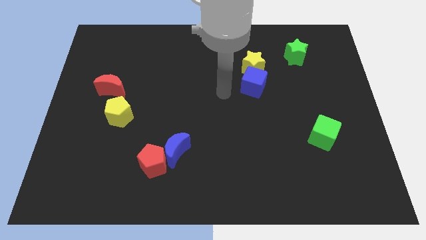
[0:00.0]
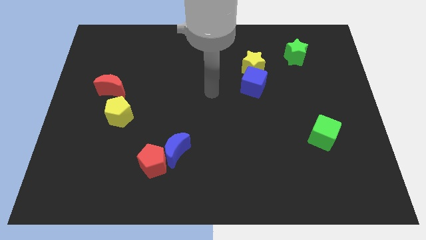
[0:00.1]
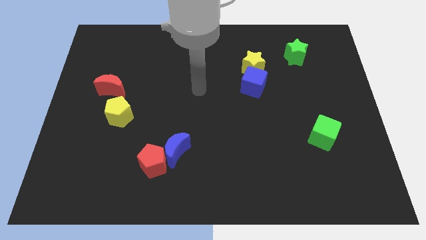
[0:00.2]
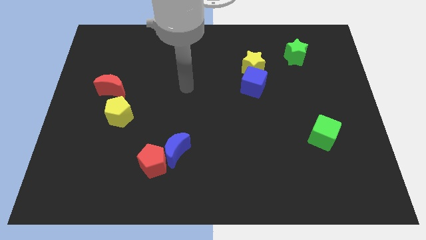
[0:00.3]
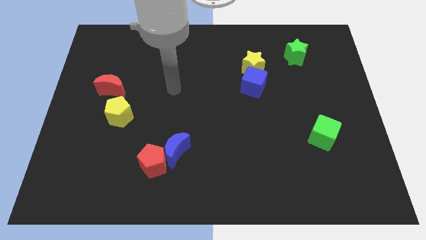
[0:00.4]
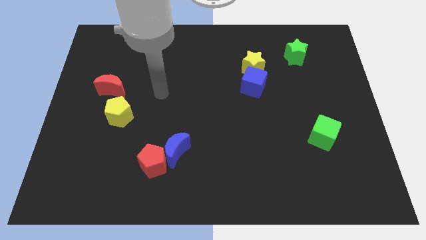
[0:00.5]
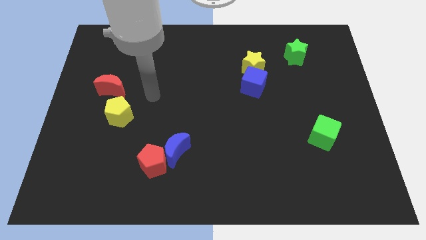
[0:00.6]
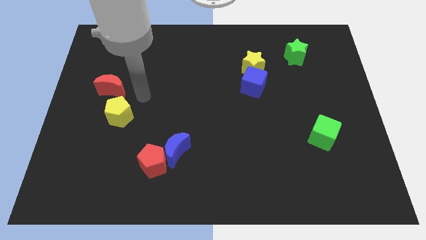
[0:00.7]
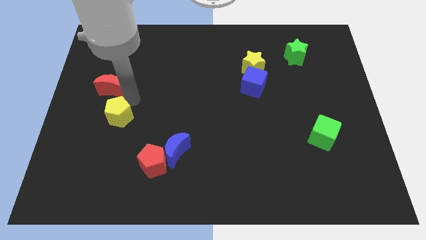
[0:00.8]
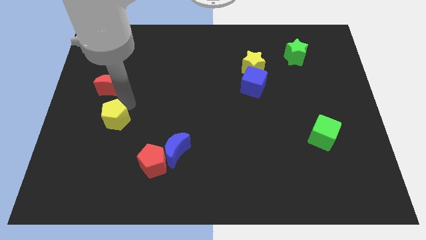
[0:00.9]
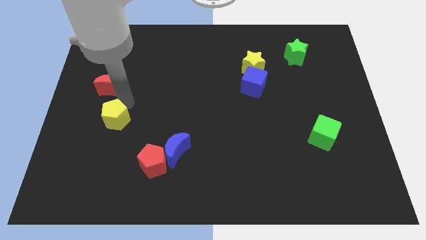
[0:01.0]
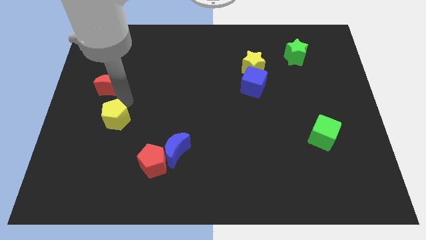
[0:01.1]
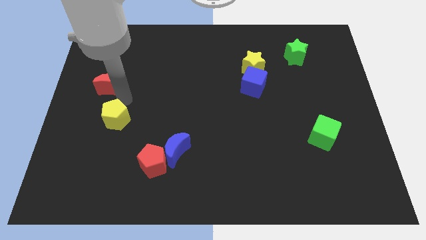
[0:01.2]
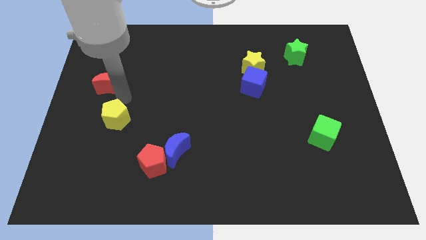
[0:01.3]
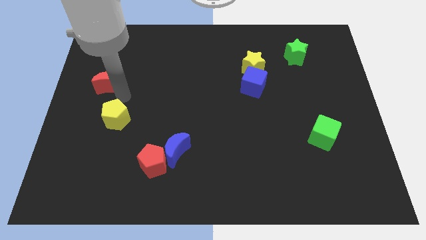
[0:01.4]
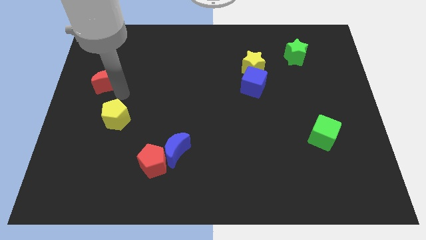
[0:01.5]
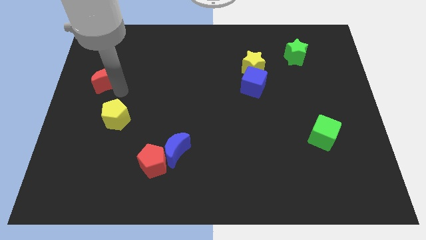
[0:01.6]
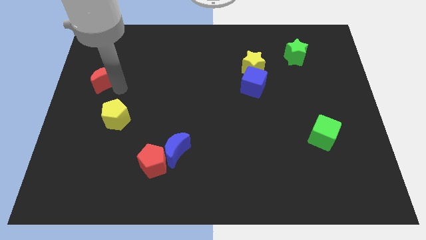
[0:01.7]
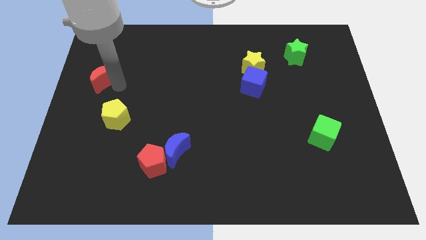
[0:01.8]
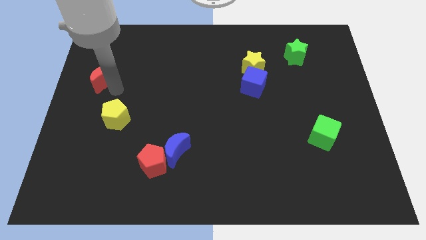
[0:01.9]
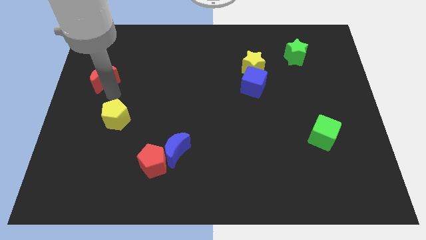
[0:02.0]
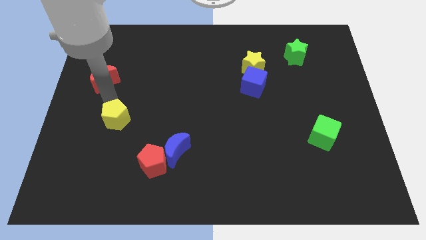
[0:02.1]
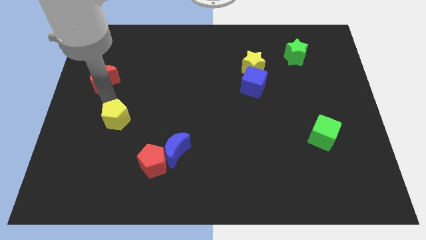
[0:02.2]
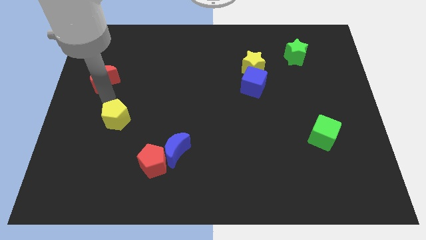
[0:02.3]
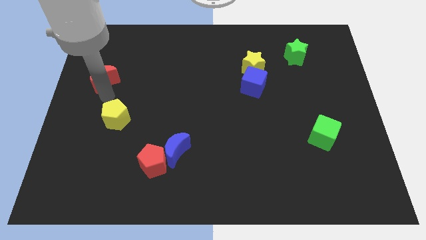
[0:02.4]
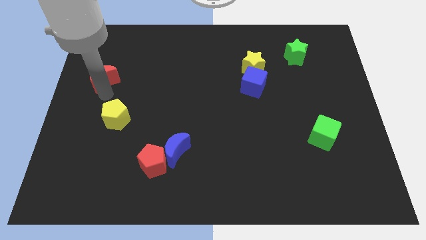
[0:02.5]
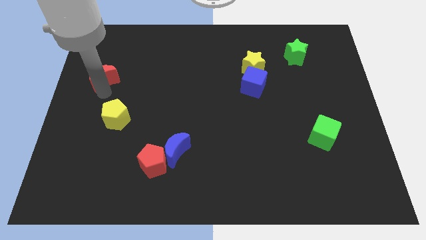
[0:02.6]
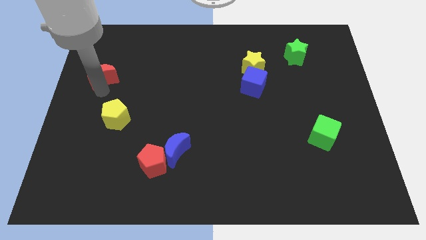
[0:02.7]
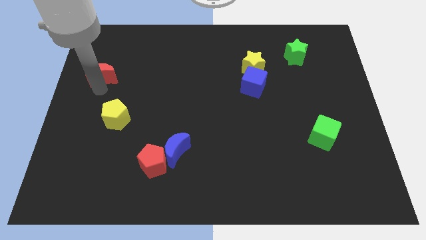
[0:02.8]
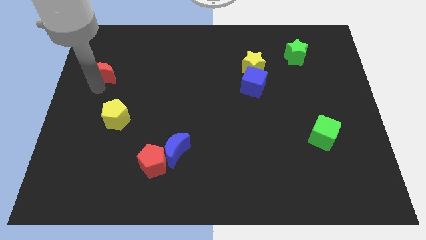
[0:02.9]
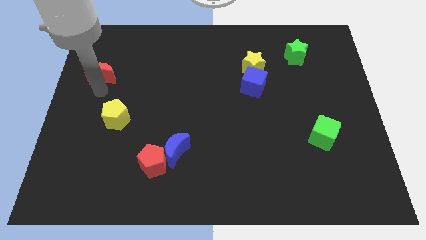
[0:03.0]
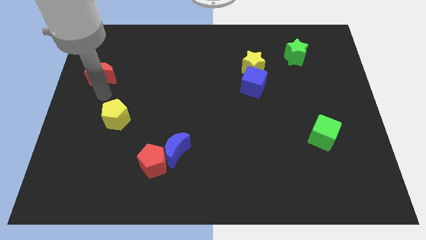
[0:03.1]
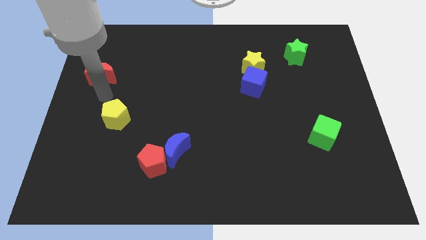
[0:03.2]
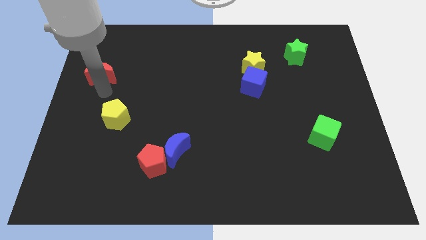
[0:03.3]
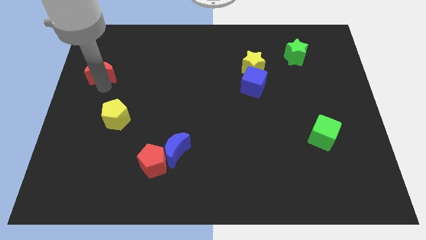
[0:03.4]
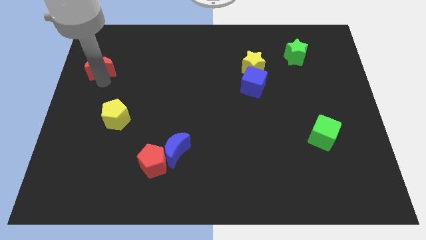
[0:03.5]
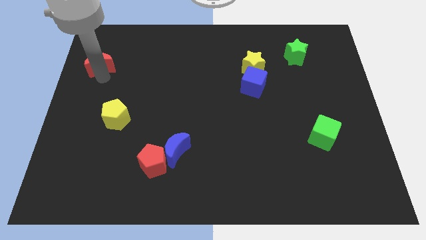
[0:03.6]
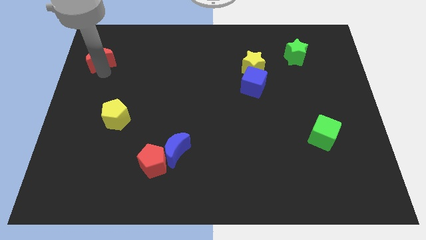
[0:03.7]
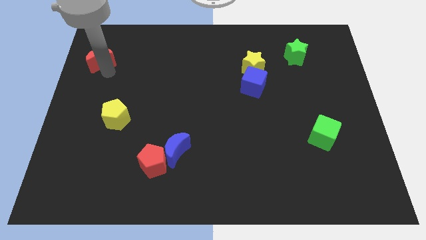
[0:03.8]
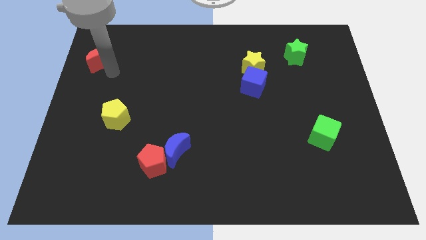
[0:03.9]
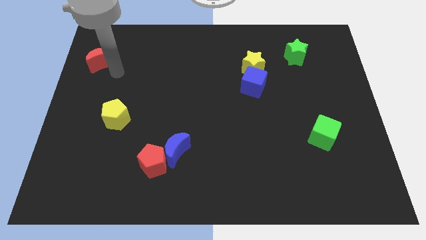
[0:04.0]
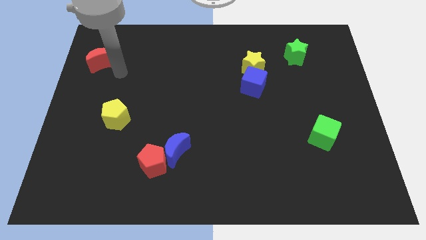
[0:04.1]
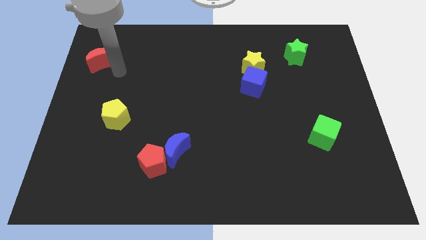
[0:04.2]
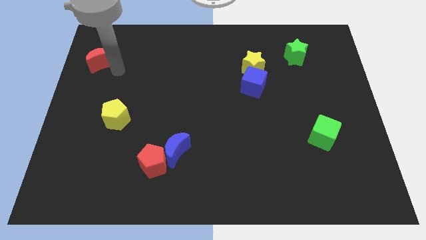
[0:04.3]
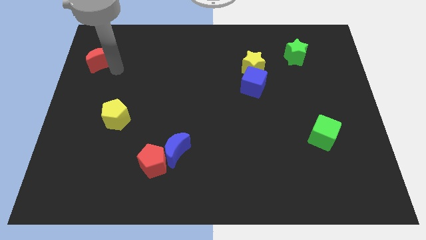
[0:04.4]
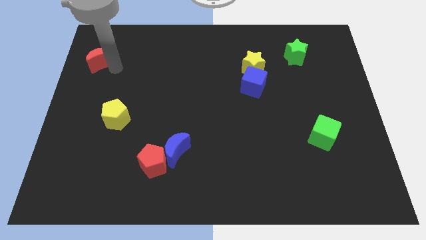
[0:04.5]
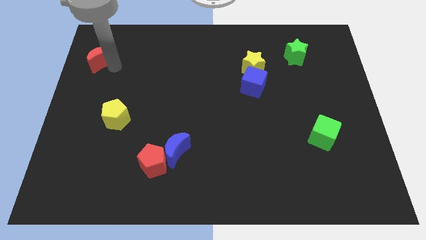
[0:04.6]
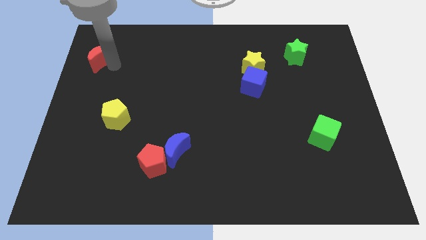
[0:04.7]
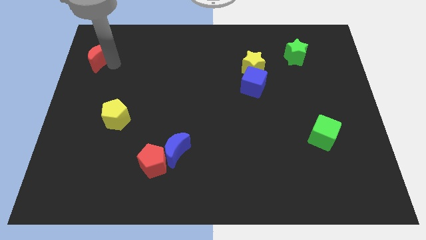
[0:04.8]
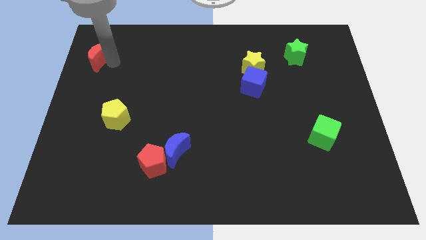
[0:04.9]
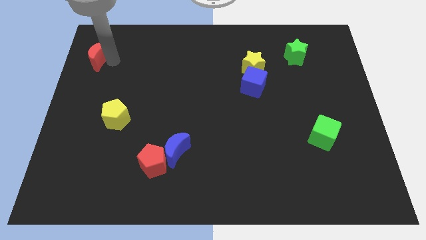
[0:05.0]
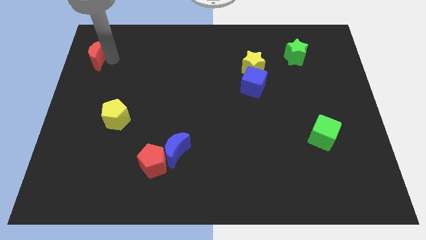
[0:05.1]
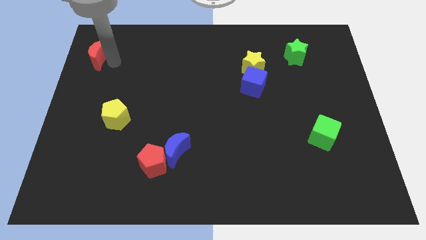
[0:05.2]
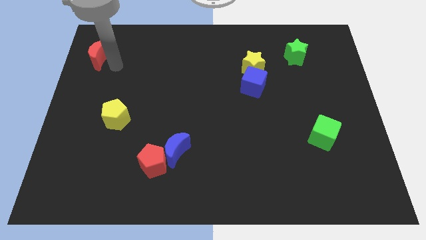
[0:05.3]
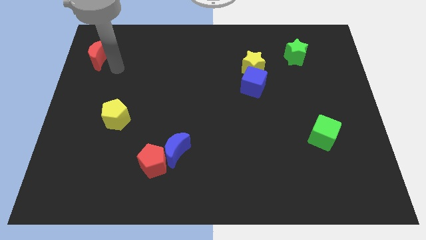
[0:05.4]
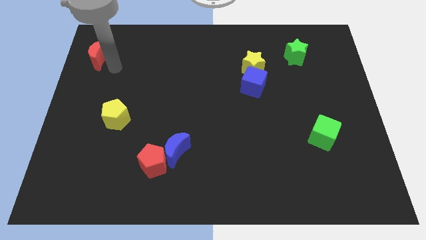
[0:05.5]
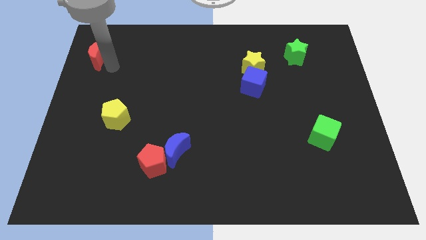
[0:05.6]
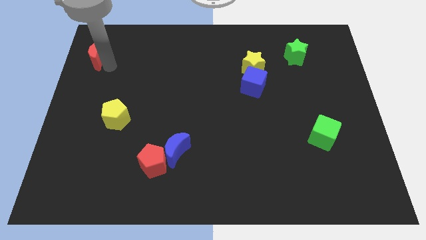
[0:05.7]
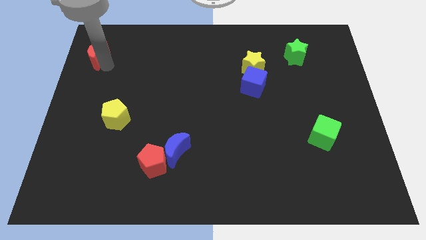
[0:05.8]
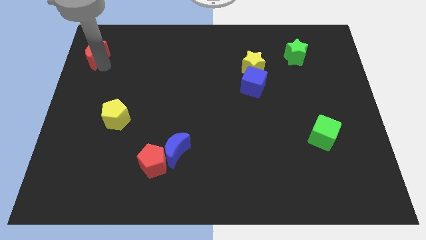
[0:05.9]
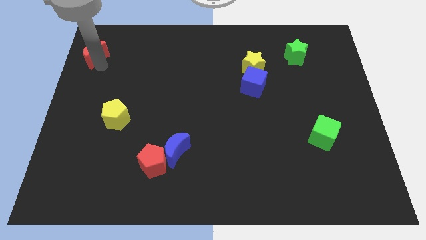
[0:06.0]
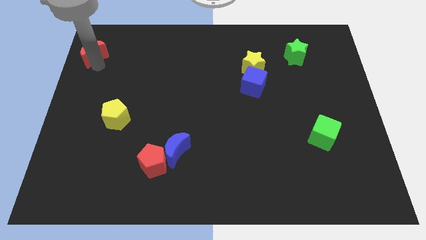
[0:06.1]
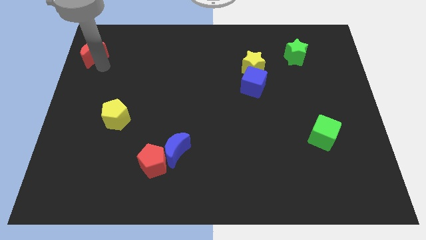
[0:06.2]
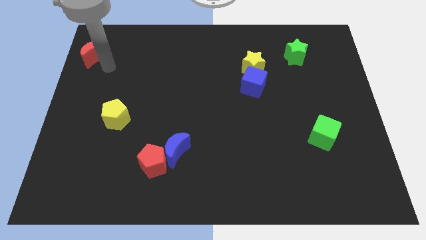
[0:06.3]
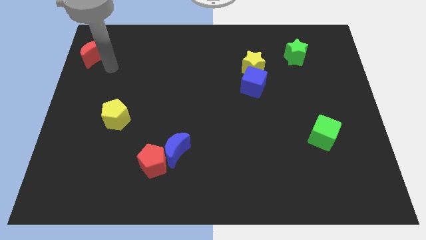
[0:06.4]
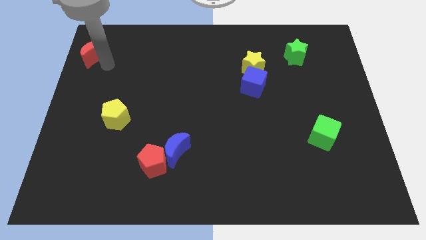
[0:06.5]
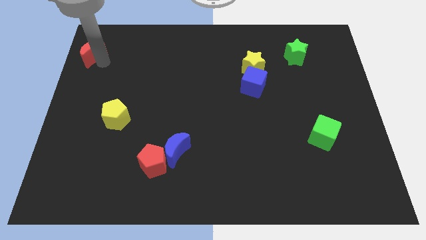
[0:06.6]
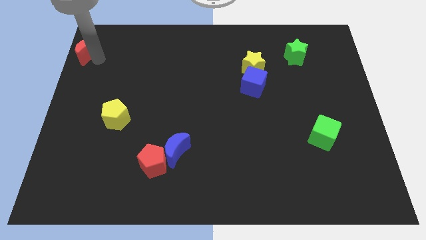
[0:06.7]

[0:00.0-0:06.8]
slide the red moon to the upper left corner

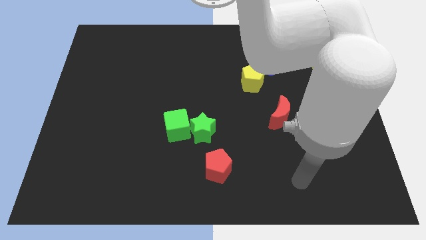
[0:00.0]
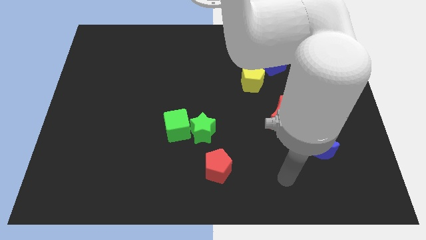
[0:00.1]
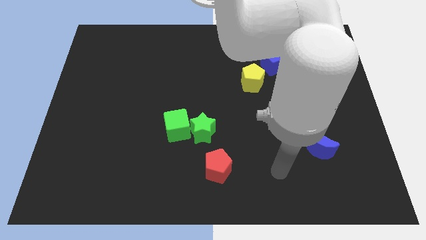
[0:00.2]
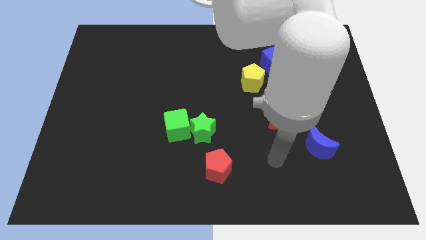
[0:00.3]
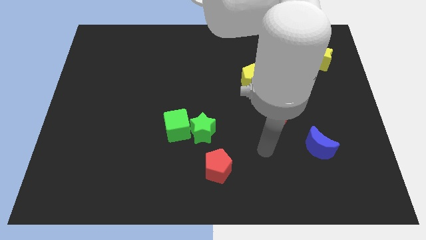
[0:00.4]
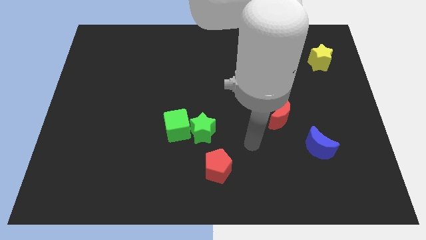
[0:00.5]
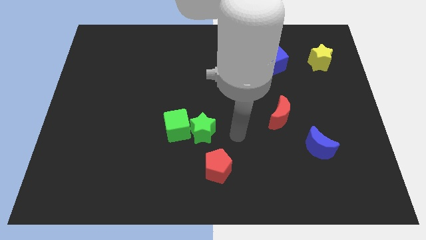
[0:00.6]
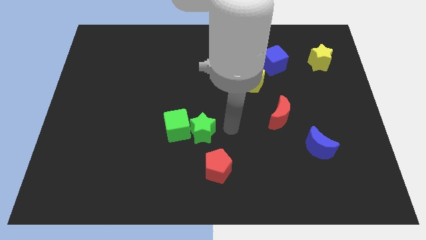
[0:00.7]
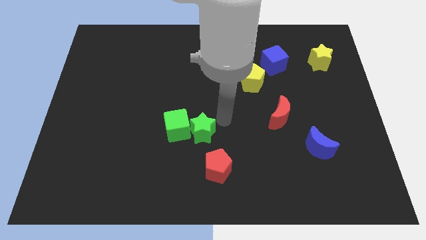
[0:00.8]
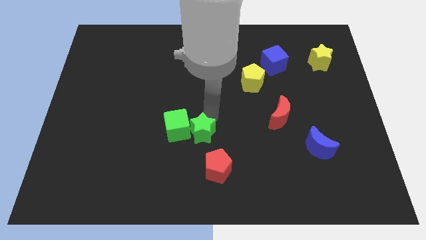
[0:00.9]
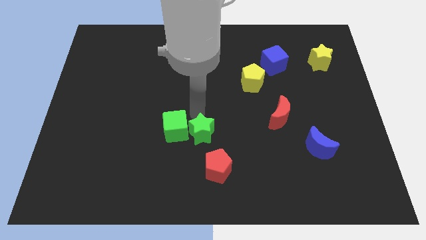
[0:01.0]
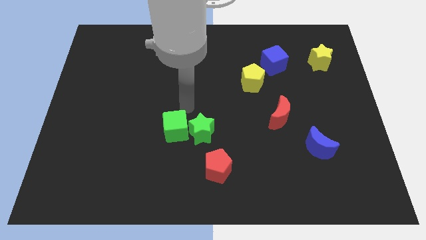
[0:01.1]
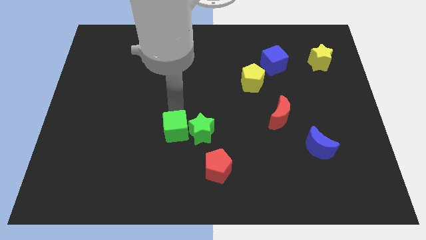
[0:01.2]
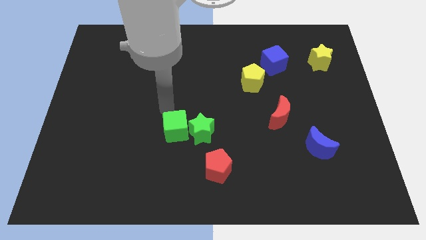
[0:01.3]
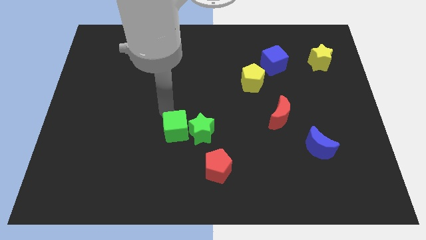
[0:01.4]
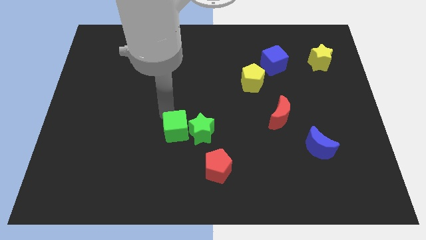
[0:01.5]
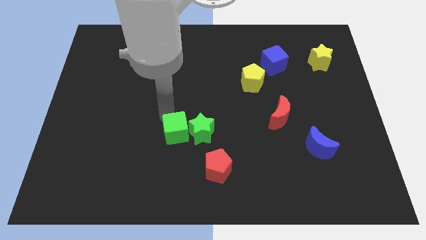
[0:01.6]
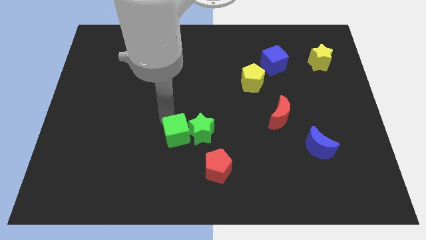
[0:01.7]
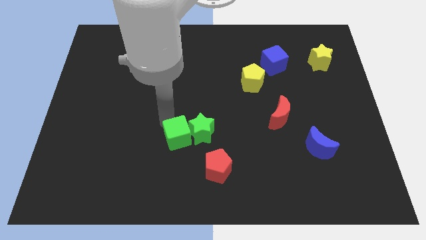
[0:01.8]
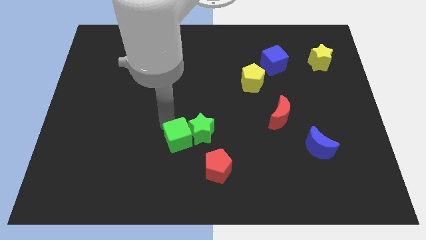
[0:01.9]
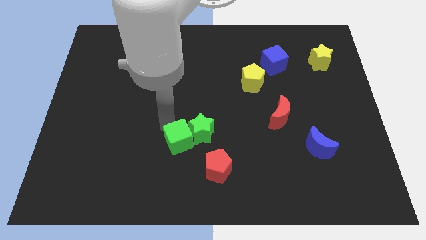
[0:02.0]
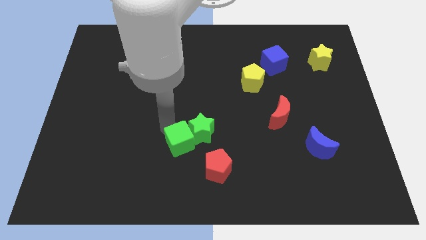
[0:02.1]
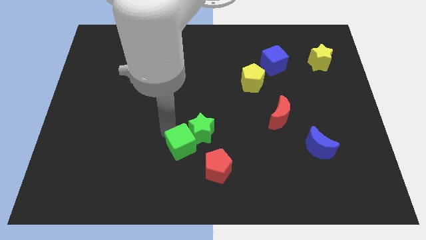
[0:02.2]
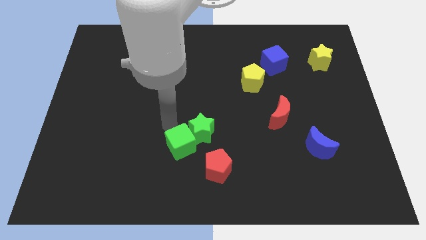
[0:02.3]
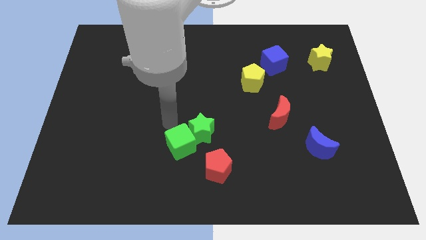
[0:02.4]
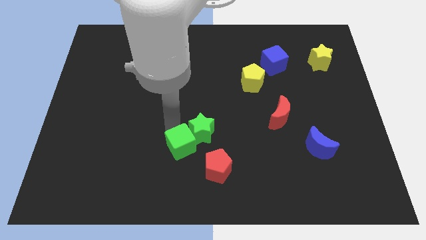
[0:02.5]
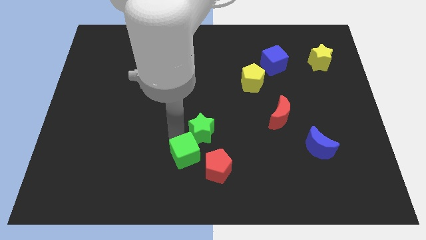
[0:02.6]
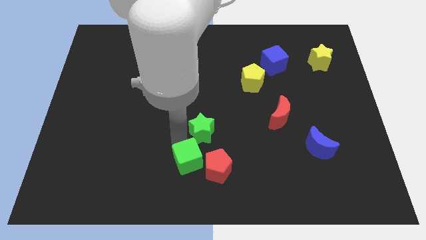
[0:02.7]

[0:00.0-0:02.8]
slide the green cube to the bottom
